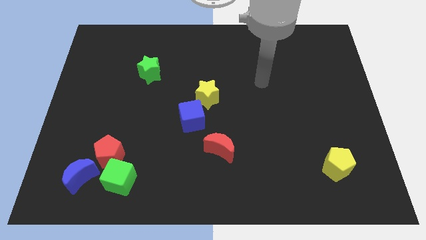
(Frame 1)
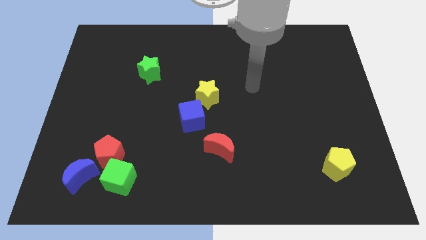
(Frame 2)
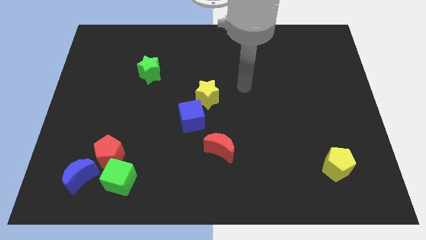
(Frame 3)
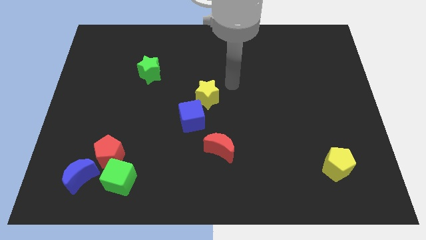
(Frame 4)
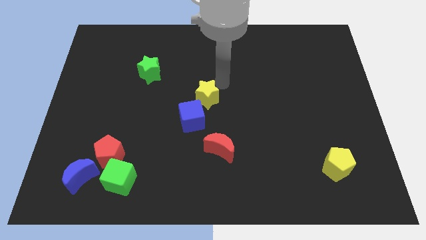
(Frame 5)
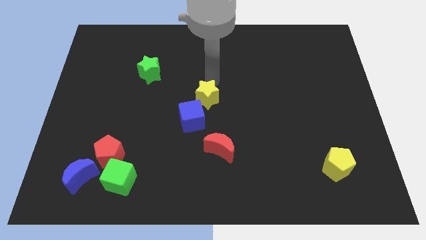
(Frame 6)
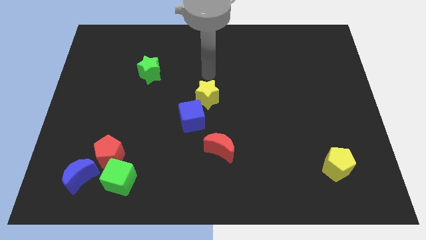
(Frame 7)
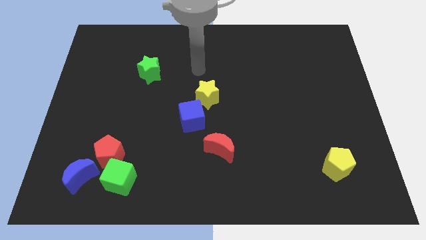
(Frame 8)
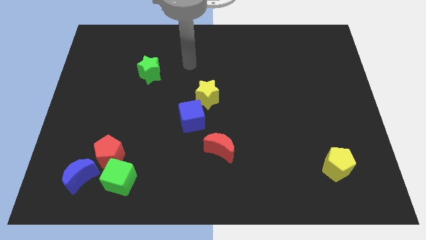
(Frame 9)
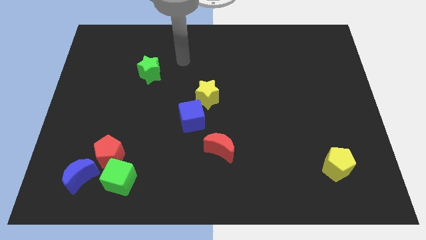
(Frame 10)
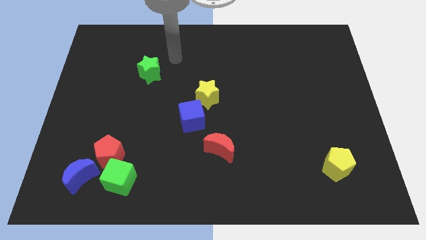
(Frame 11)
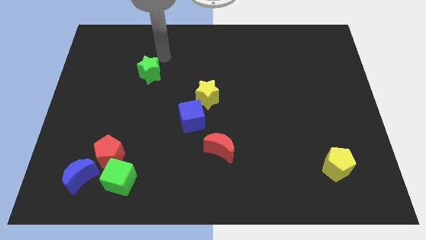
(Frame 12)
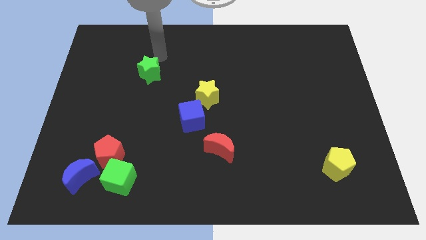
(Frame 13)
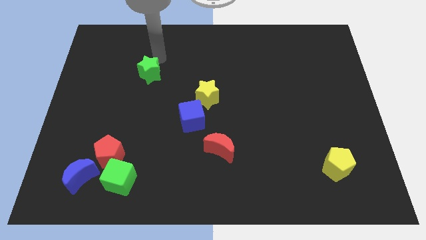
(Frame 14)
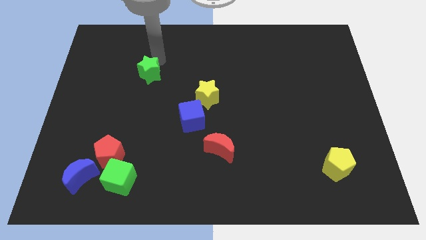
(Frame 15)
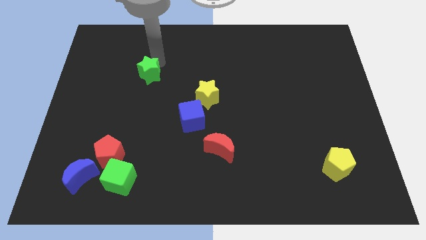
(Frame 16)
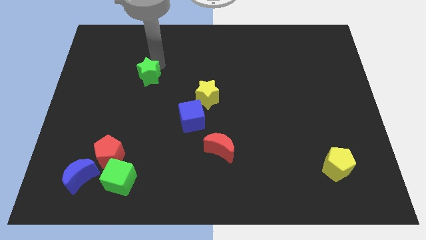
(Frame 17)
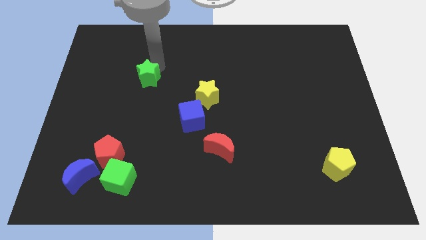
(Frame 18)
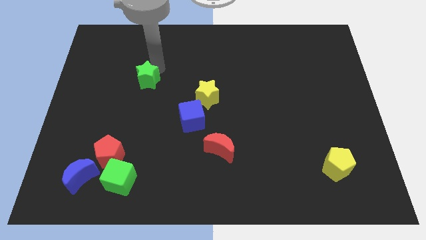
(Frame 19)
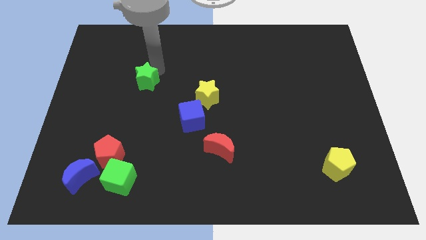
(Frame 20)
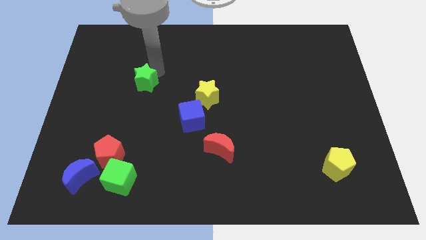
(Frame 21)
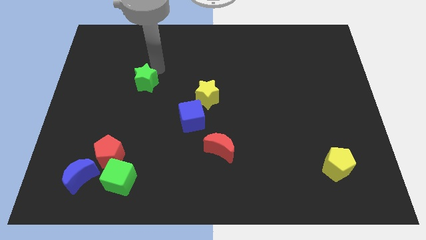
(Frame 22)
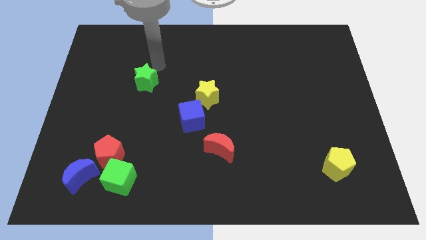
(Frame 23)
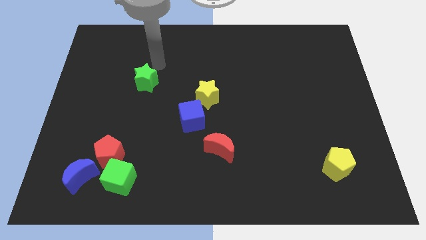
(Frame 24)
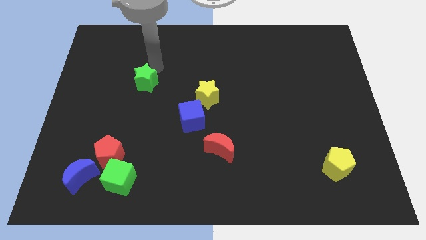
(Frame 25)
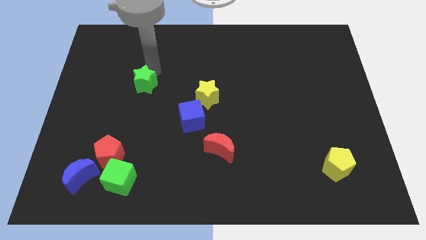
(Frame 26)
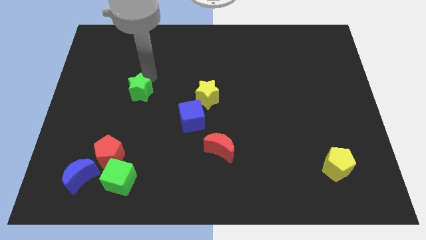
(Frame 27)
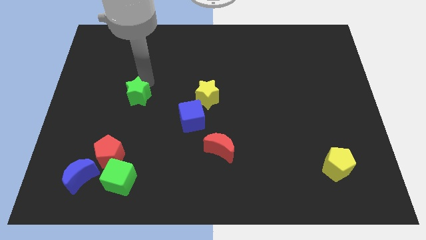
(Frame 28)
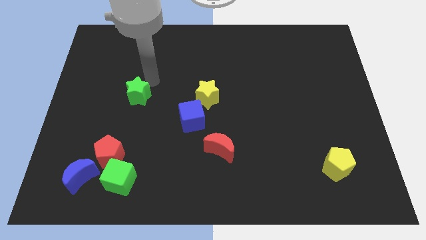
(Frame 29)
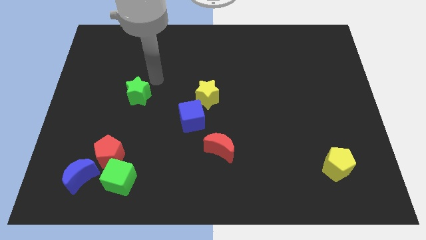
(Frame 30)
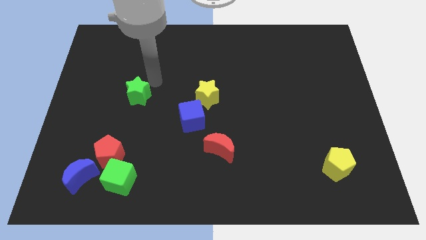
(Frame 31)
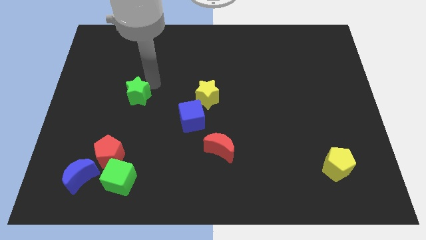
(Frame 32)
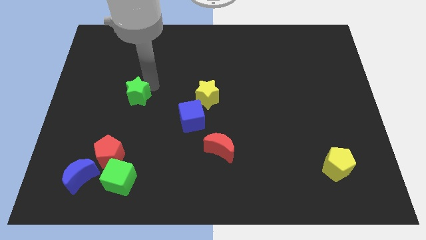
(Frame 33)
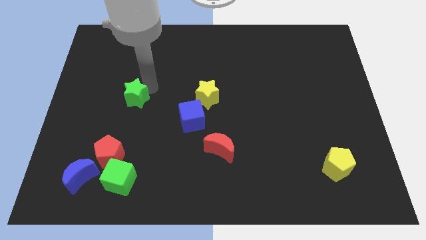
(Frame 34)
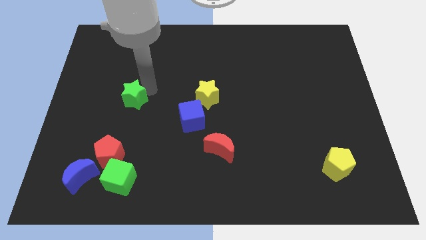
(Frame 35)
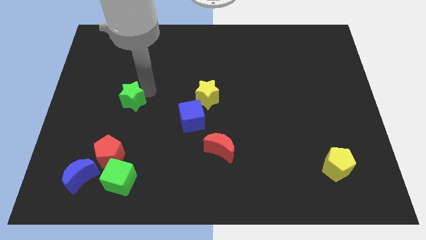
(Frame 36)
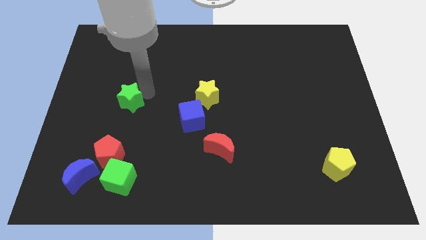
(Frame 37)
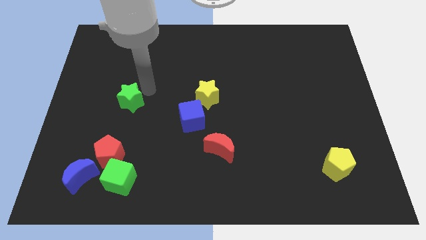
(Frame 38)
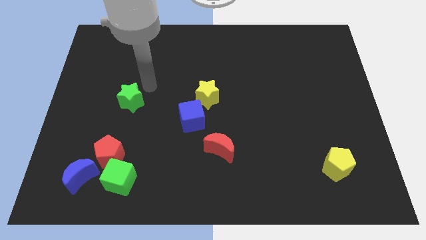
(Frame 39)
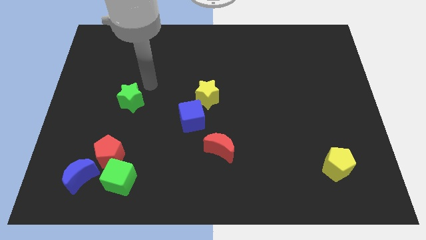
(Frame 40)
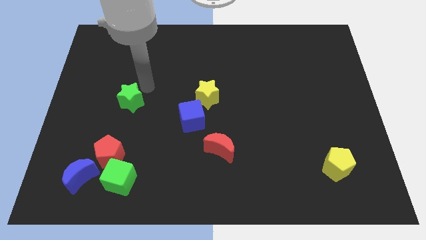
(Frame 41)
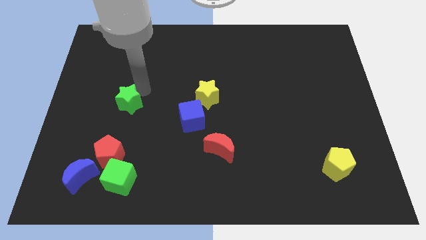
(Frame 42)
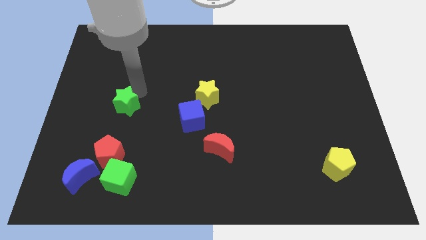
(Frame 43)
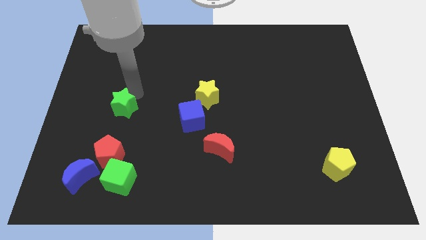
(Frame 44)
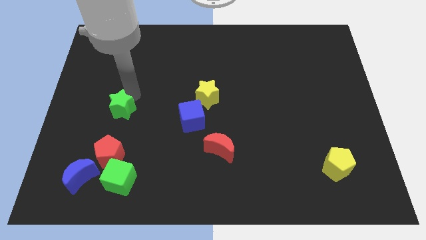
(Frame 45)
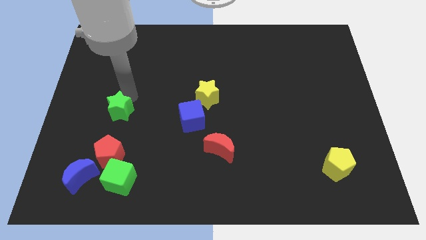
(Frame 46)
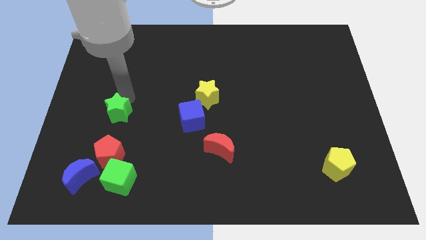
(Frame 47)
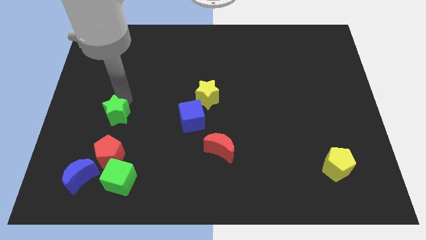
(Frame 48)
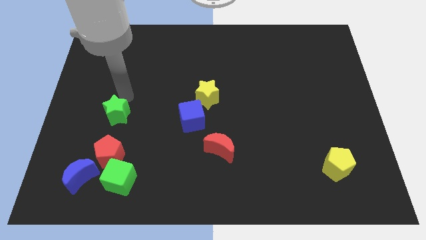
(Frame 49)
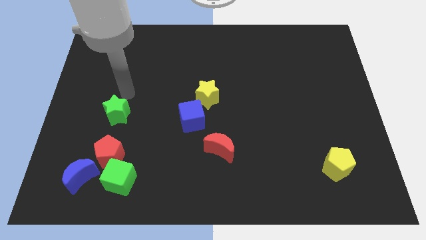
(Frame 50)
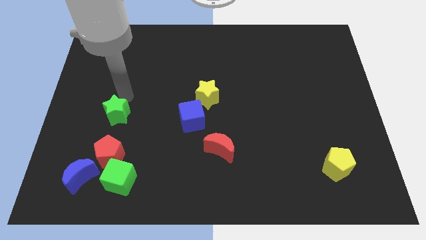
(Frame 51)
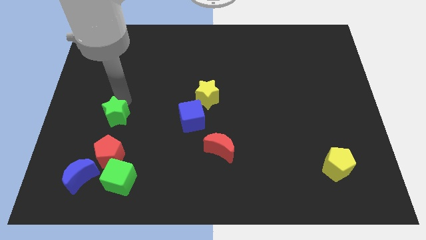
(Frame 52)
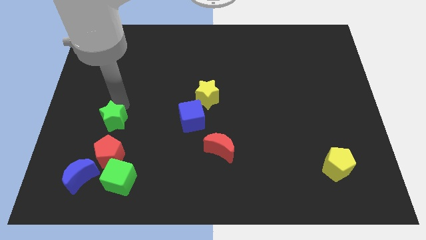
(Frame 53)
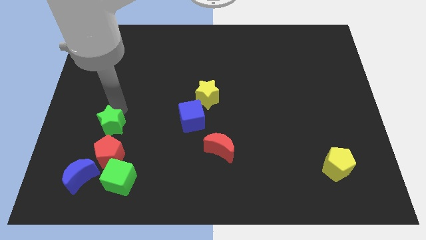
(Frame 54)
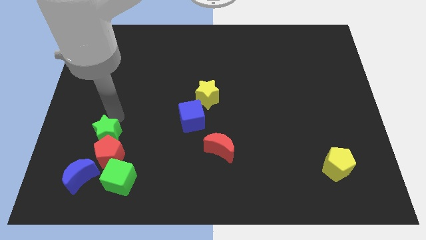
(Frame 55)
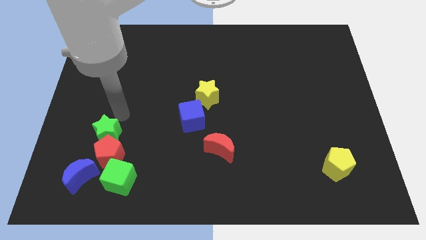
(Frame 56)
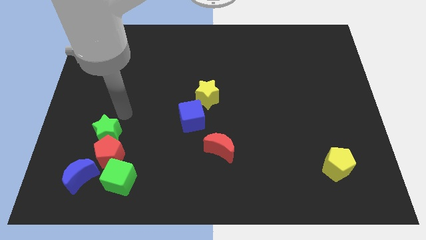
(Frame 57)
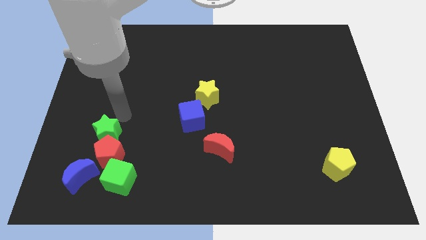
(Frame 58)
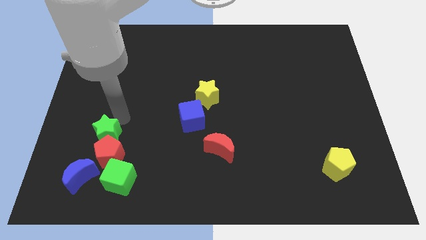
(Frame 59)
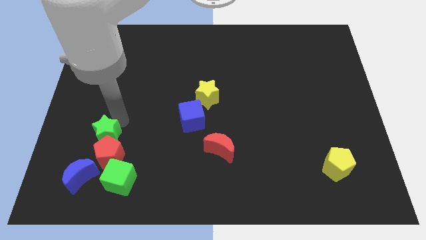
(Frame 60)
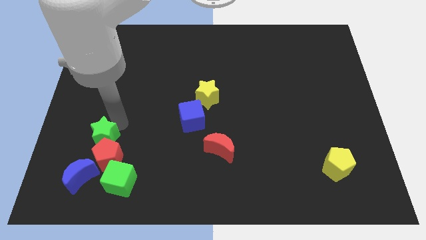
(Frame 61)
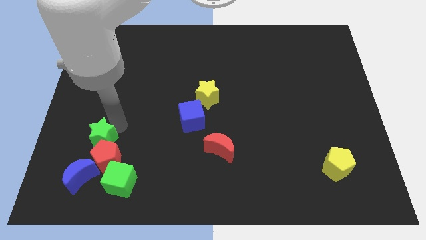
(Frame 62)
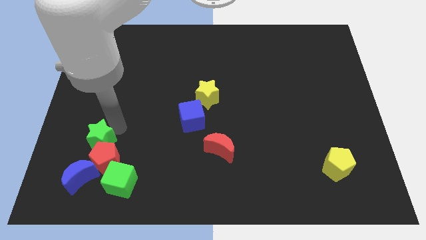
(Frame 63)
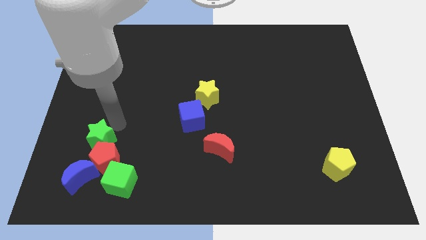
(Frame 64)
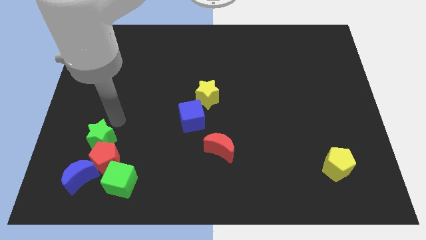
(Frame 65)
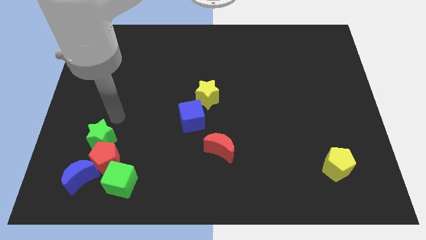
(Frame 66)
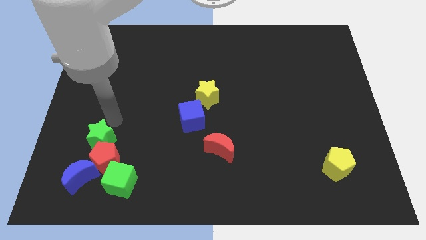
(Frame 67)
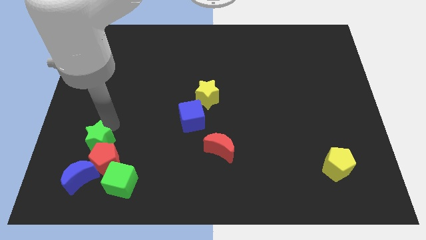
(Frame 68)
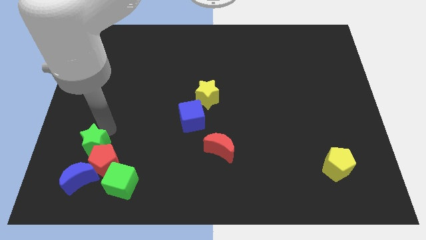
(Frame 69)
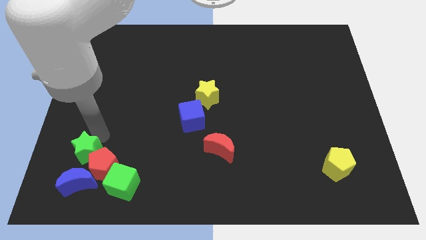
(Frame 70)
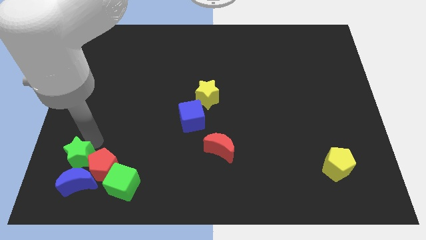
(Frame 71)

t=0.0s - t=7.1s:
move the green star next to the blue moon

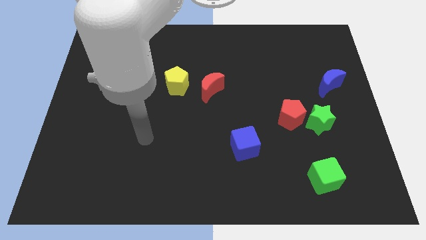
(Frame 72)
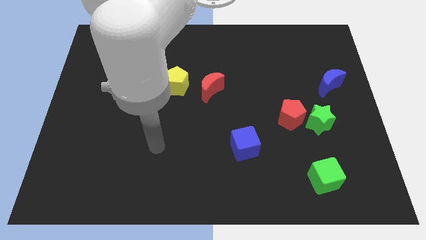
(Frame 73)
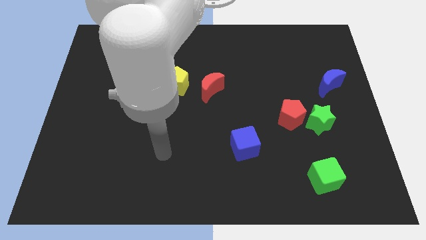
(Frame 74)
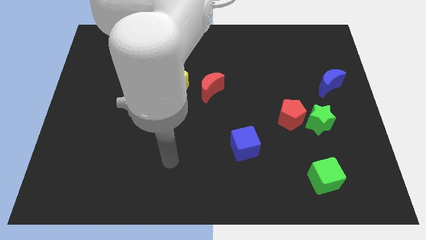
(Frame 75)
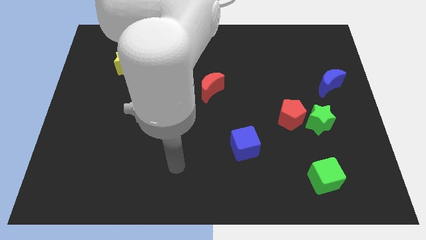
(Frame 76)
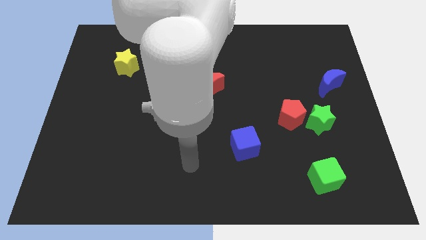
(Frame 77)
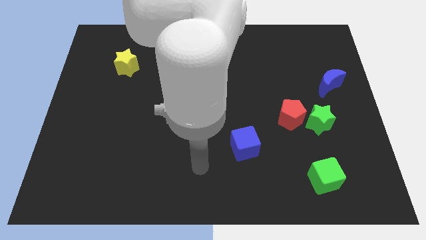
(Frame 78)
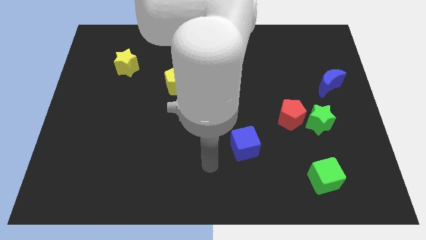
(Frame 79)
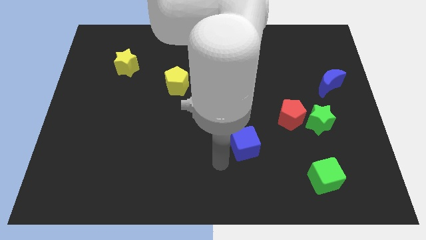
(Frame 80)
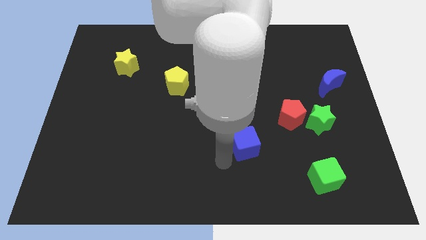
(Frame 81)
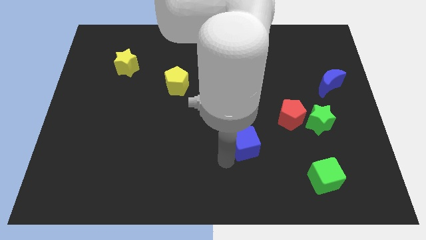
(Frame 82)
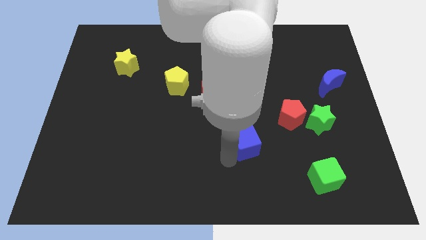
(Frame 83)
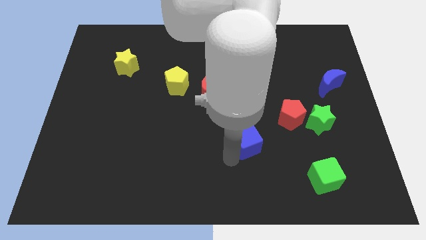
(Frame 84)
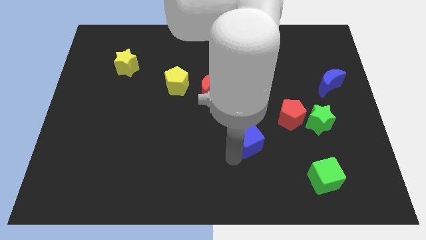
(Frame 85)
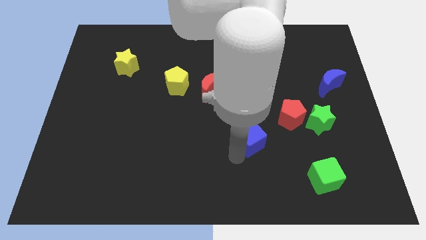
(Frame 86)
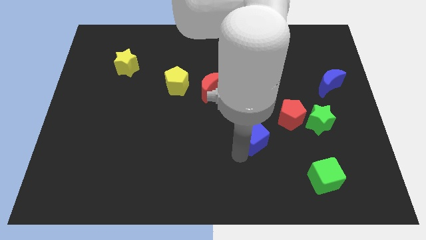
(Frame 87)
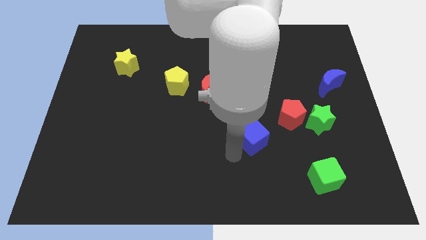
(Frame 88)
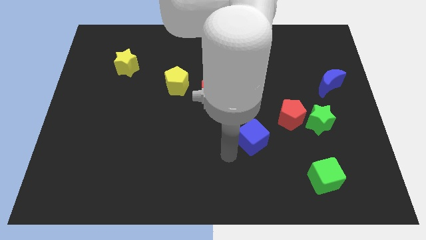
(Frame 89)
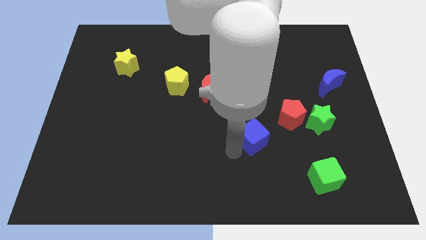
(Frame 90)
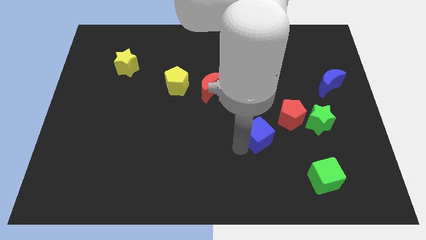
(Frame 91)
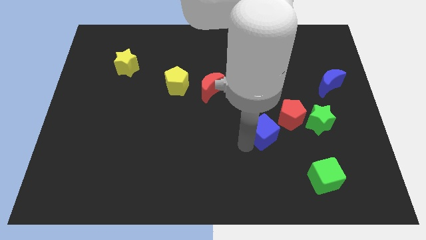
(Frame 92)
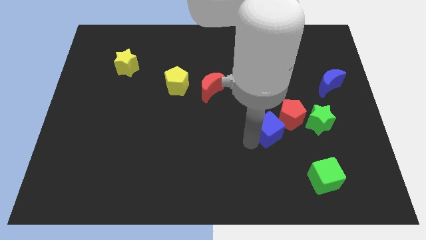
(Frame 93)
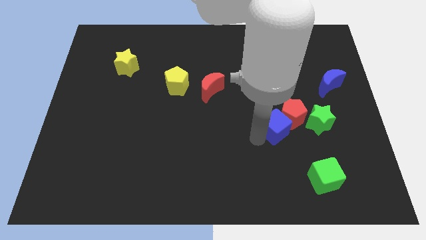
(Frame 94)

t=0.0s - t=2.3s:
move the blue cube close to the red pentagon
